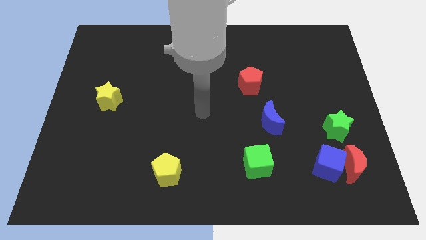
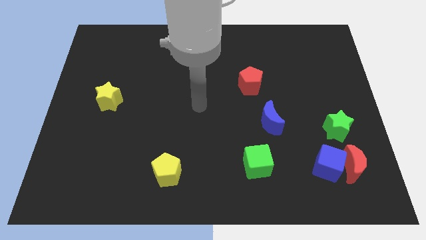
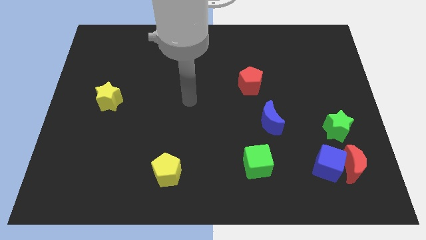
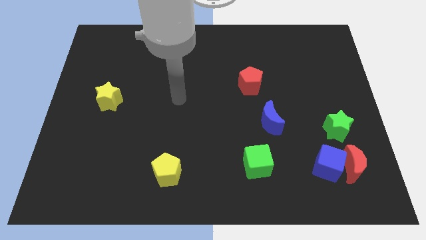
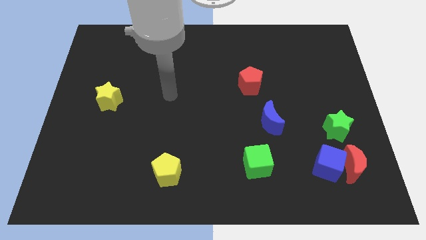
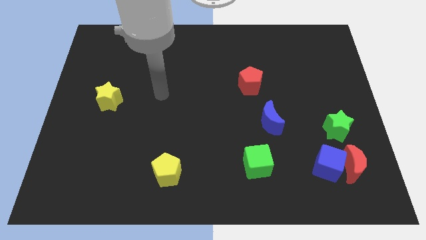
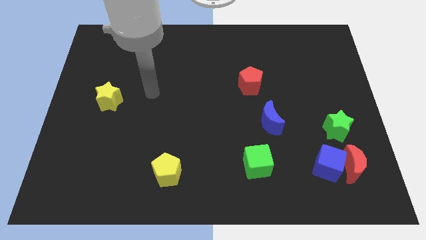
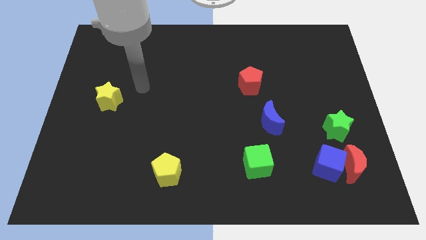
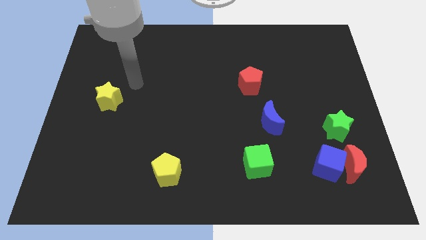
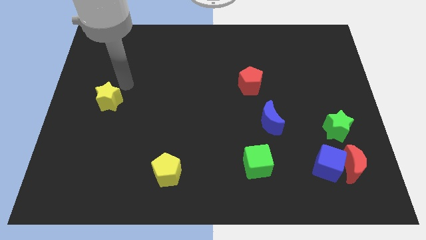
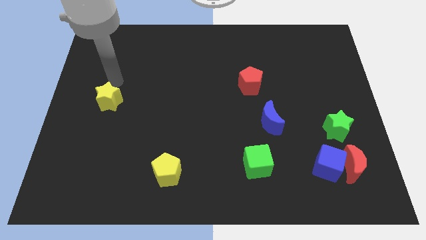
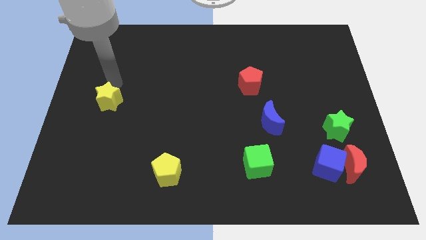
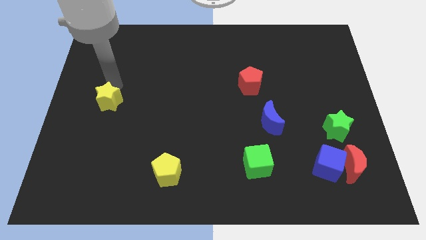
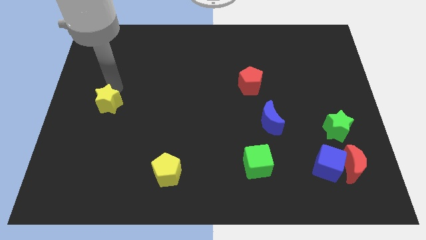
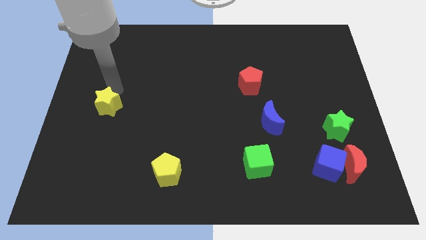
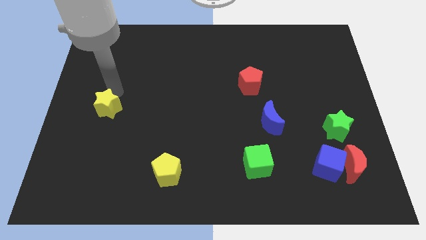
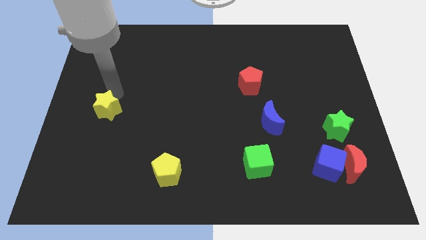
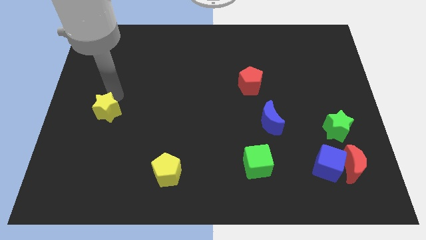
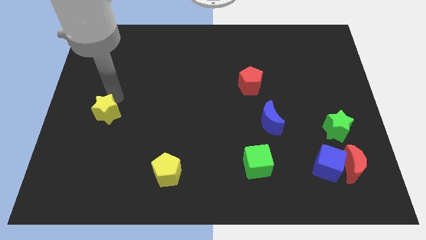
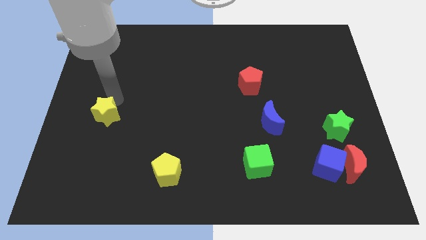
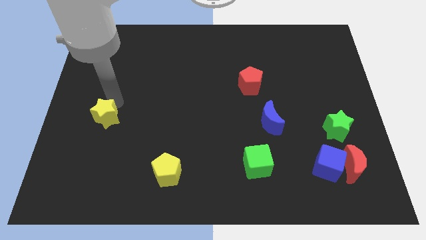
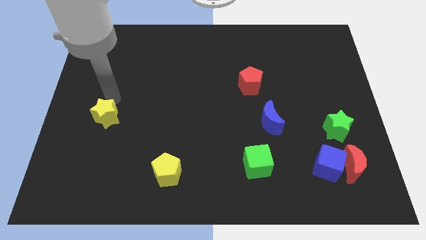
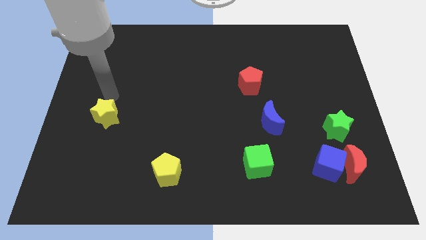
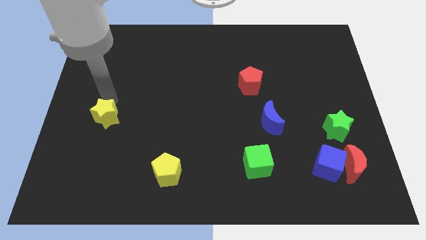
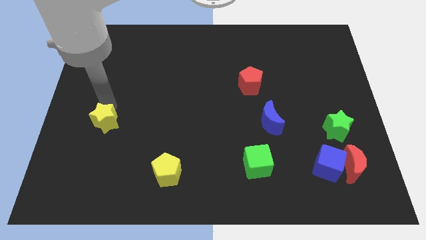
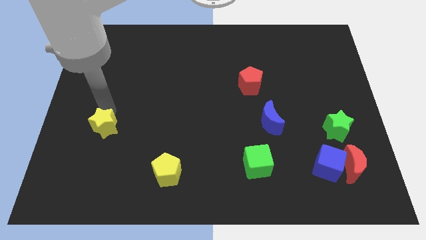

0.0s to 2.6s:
slightly move the yellow star downwards

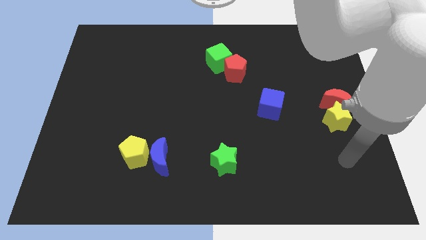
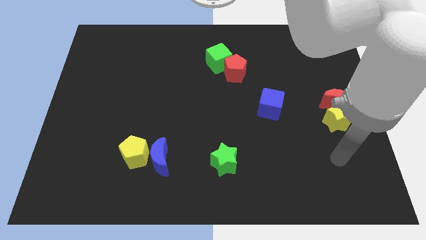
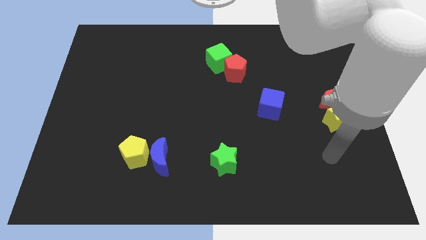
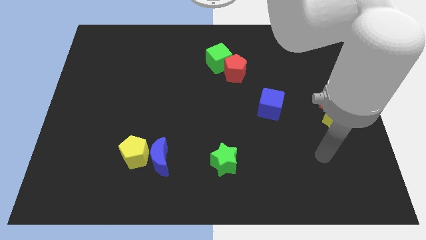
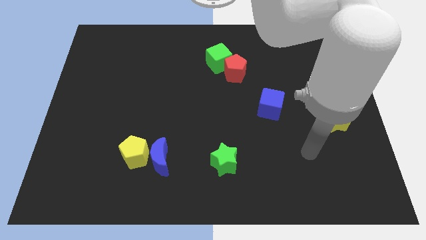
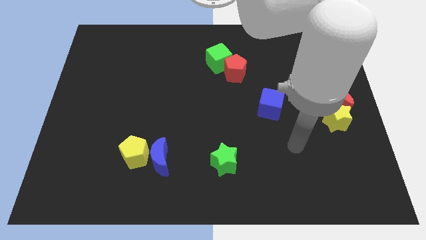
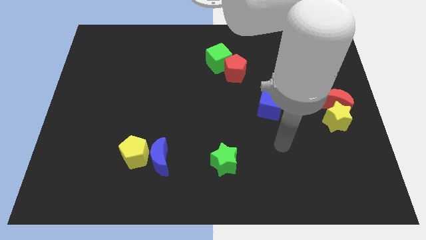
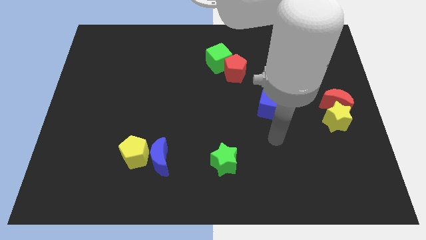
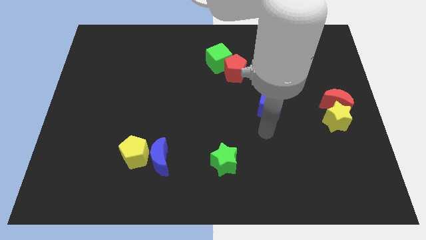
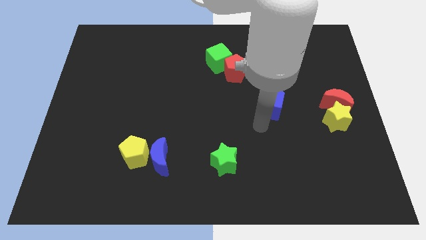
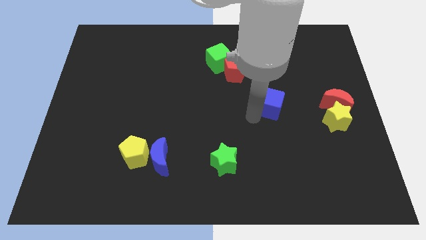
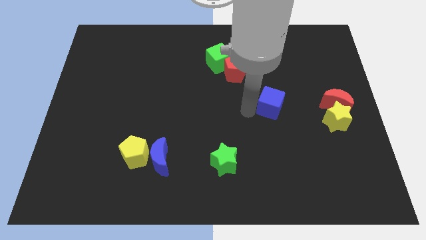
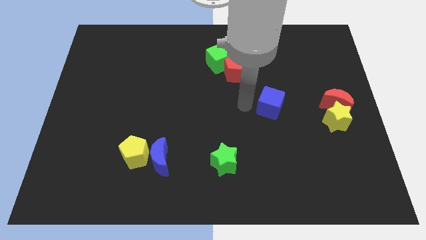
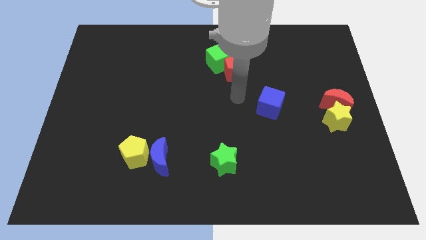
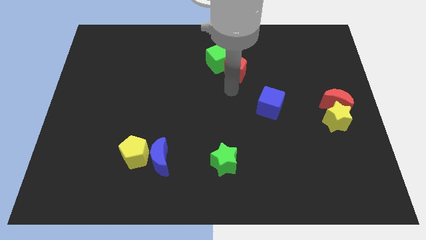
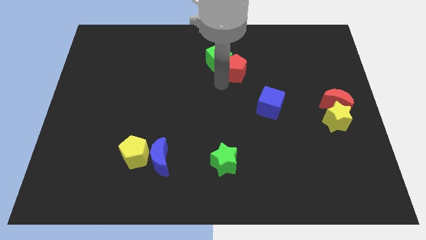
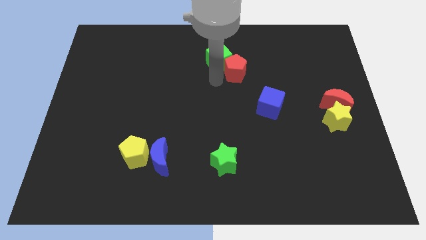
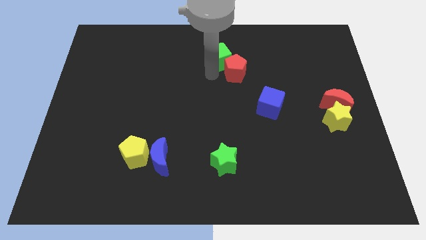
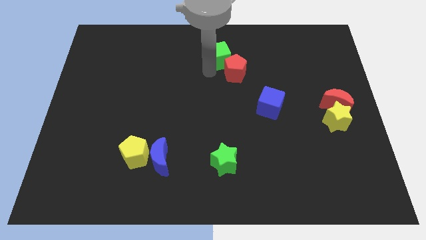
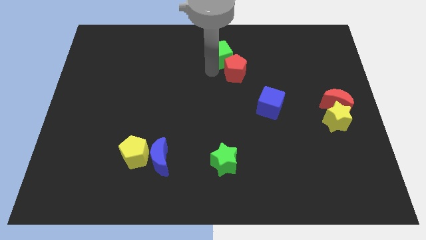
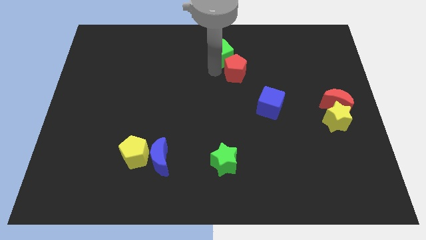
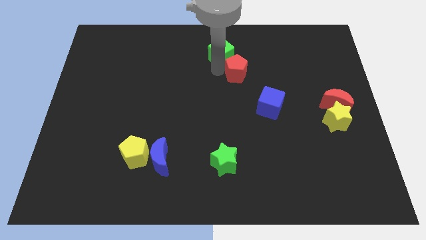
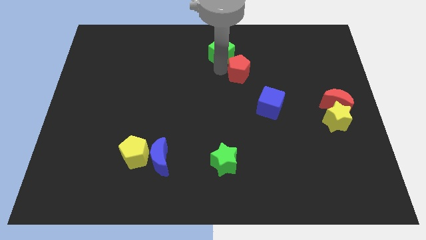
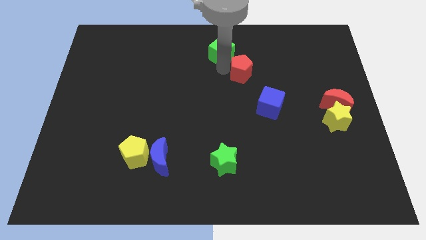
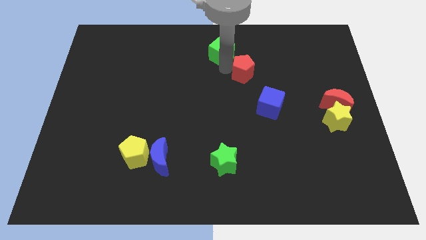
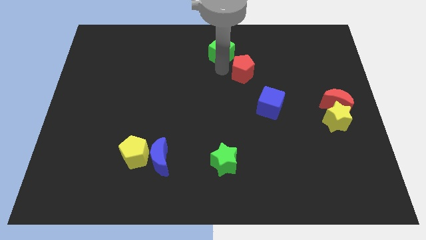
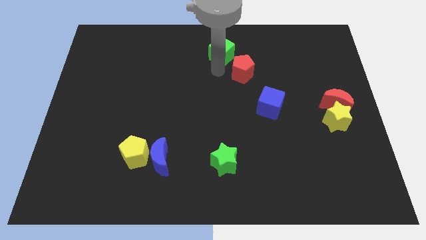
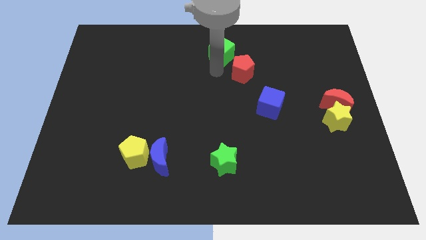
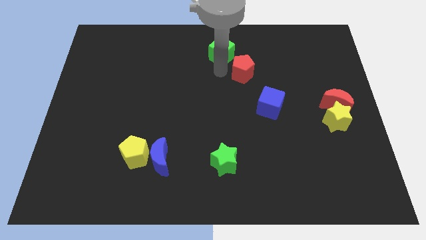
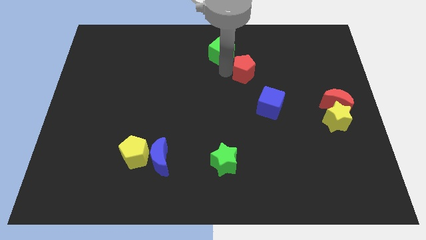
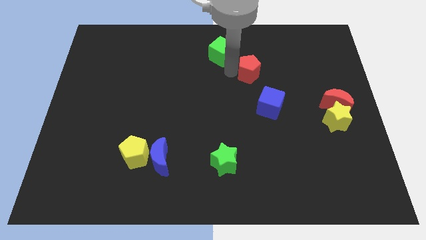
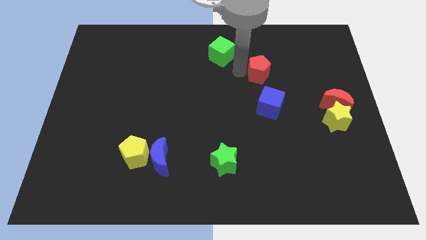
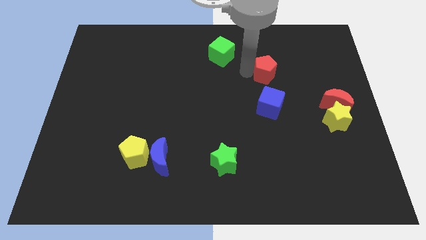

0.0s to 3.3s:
slide the red pentagon right a little bit

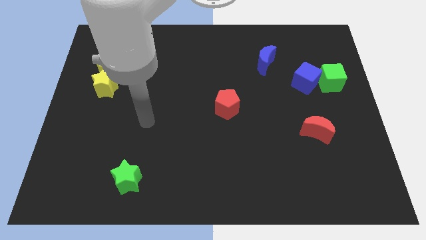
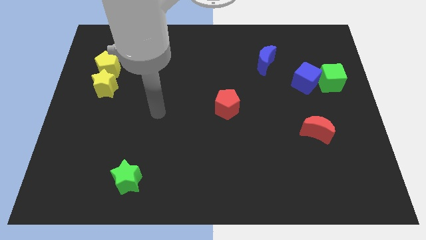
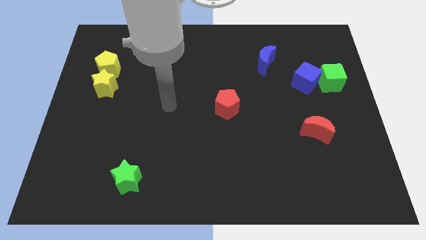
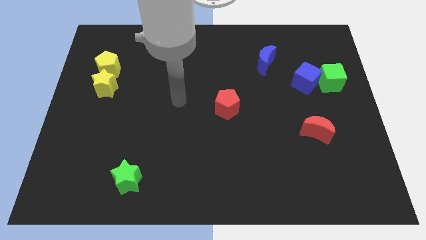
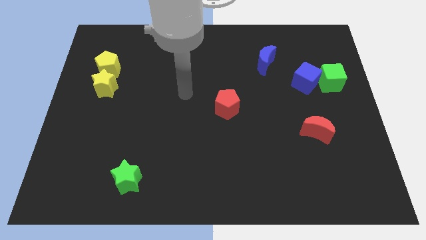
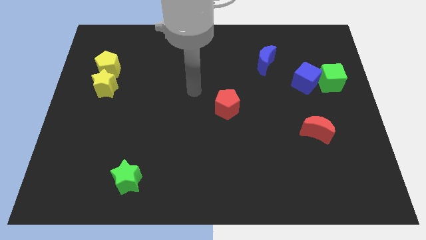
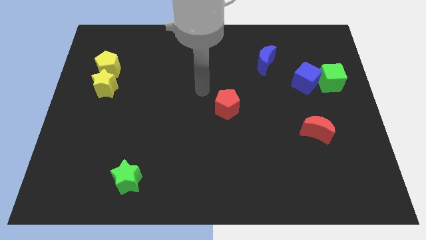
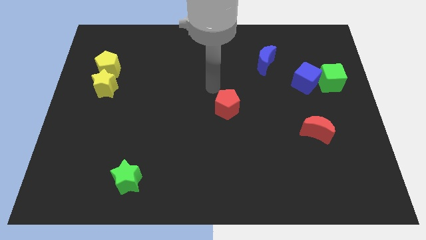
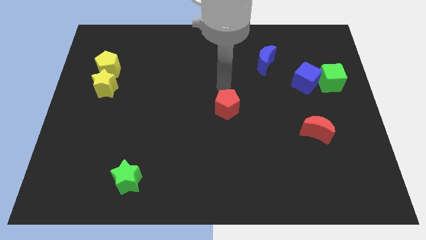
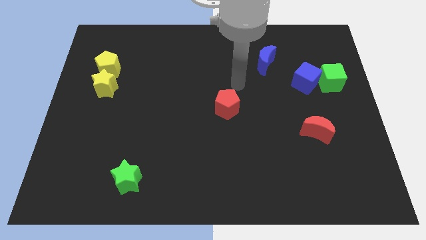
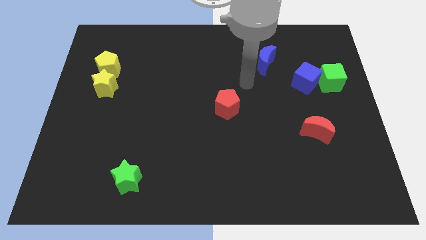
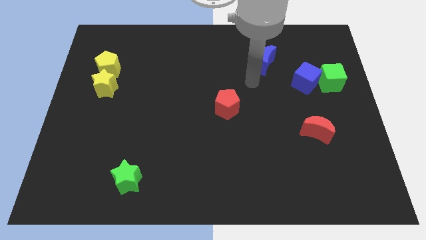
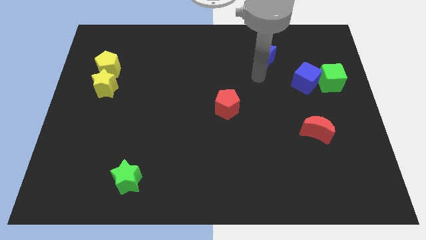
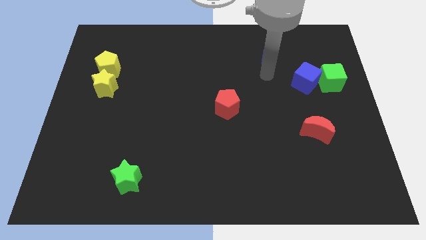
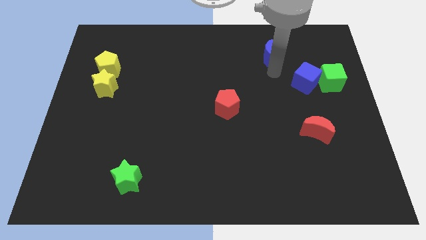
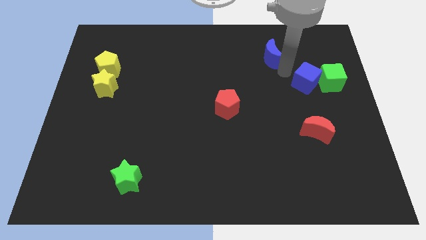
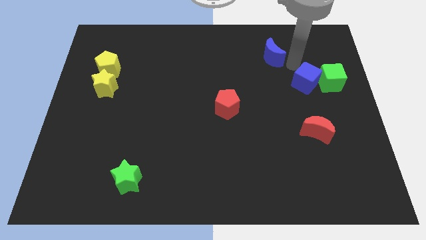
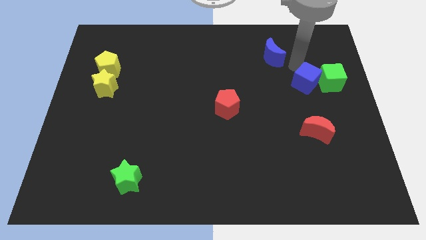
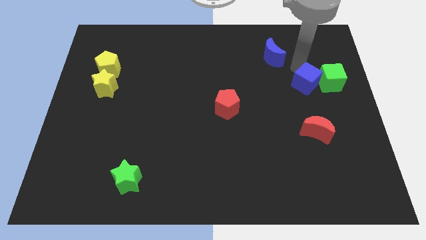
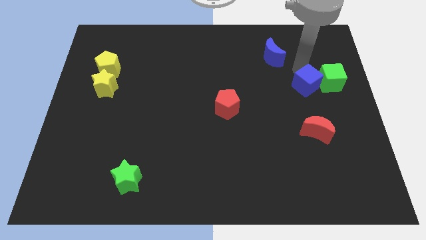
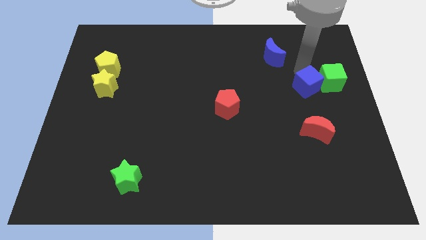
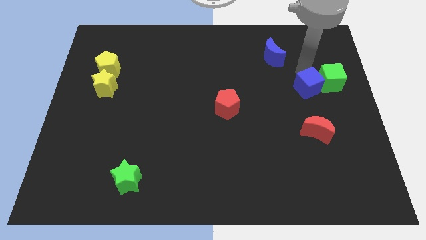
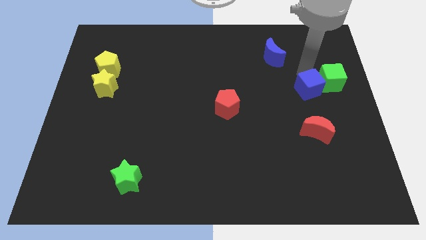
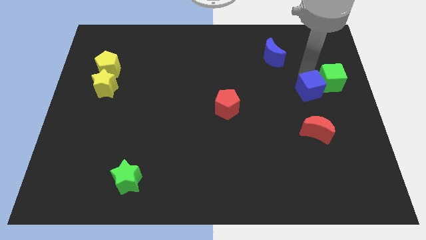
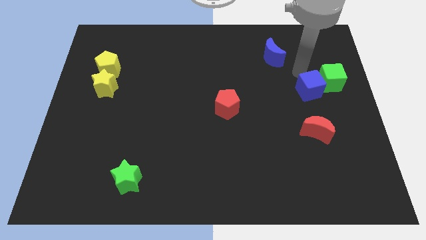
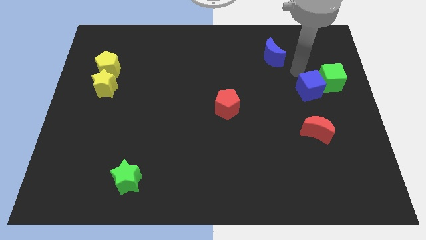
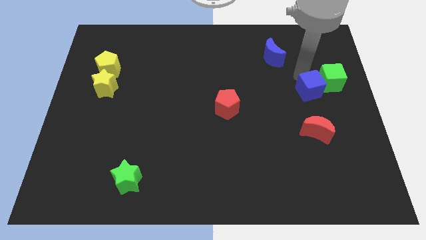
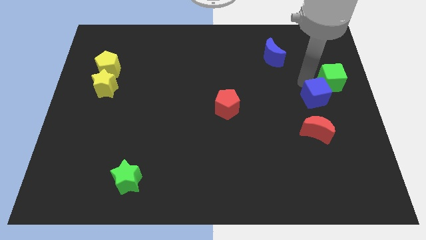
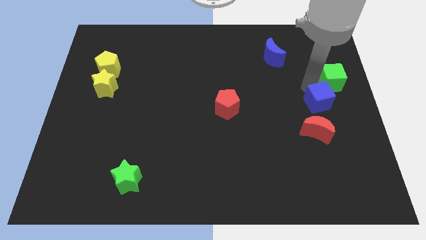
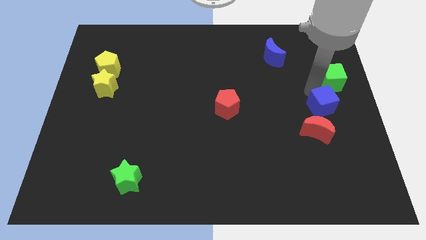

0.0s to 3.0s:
slide the blue cube somewhat down
